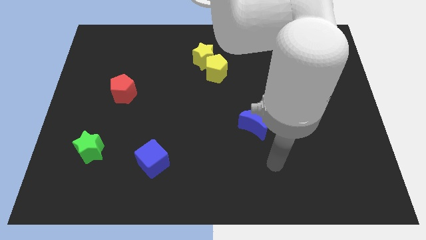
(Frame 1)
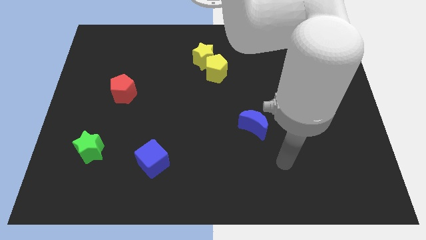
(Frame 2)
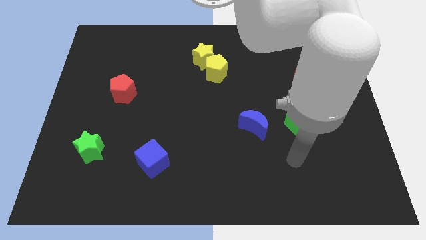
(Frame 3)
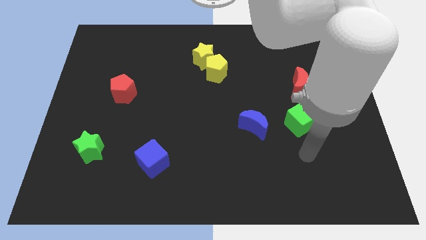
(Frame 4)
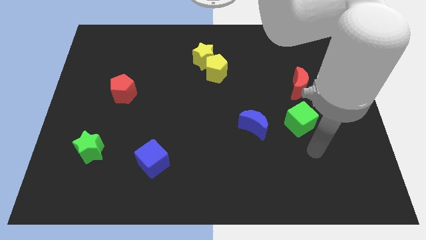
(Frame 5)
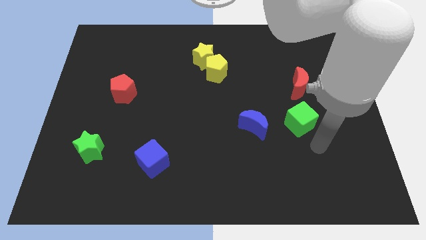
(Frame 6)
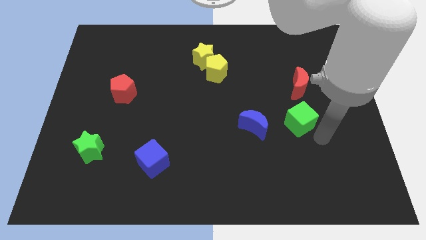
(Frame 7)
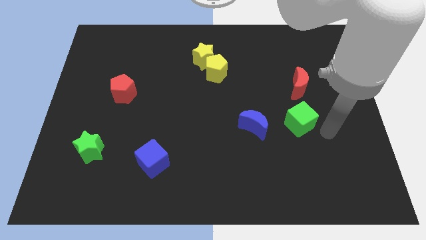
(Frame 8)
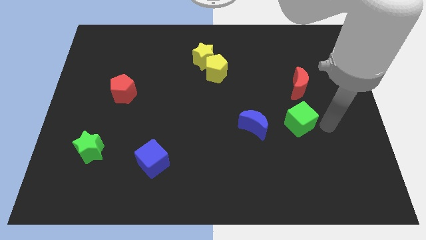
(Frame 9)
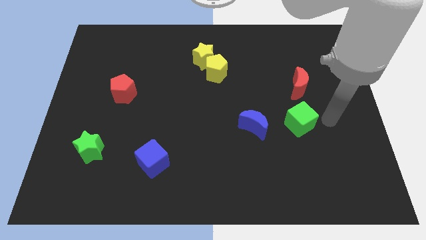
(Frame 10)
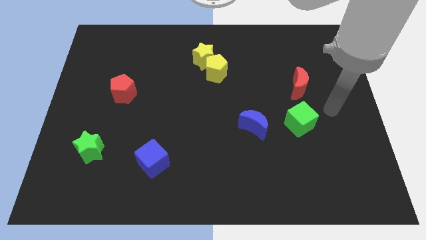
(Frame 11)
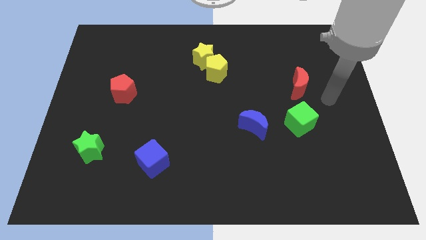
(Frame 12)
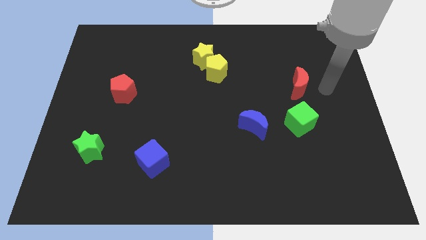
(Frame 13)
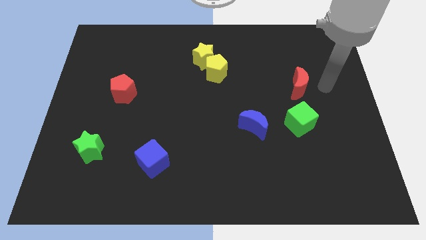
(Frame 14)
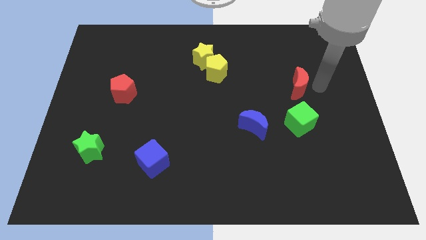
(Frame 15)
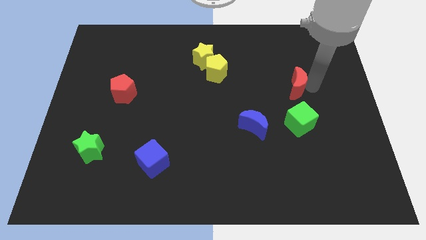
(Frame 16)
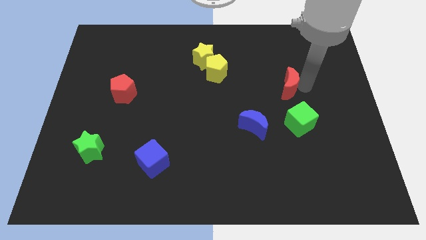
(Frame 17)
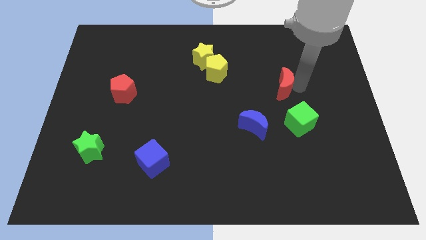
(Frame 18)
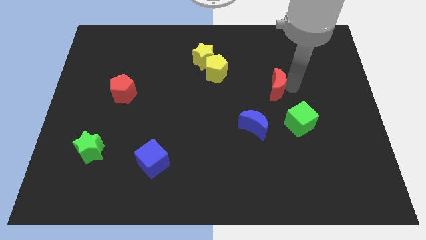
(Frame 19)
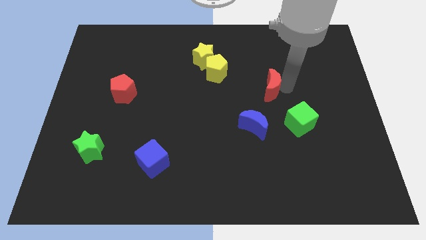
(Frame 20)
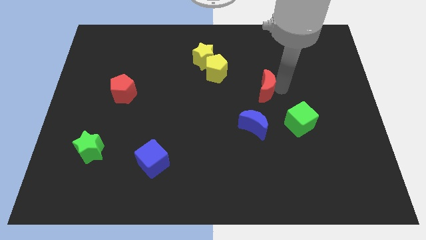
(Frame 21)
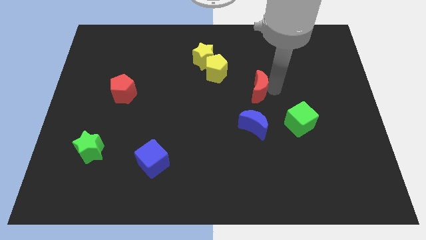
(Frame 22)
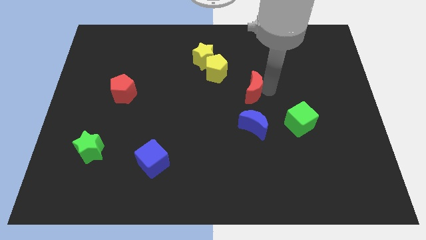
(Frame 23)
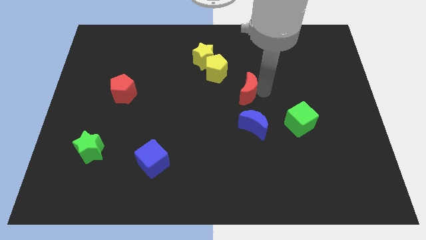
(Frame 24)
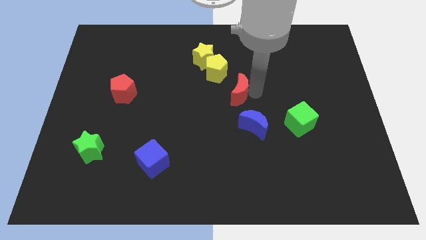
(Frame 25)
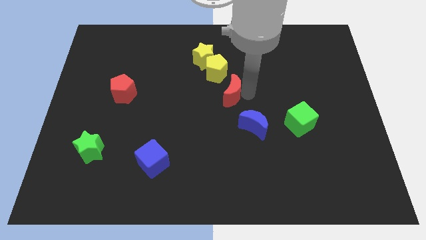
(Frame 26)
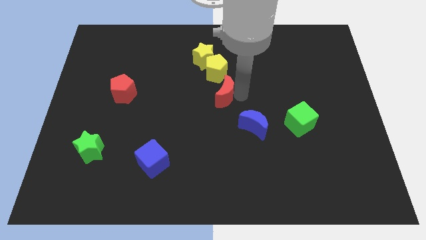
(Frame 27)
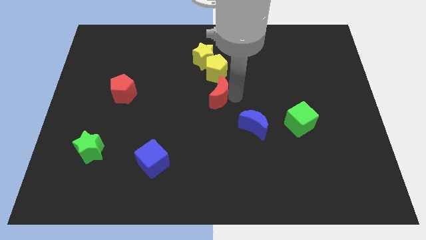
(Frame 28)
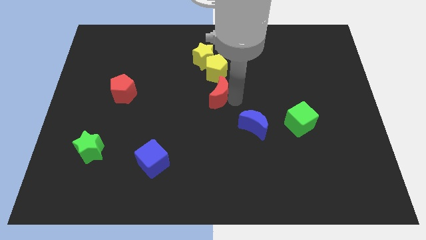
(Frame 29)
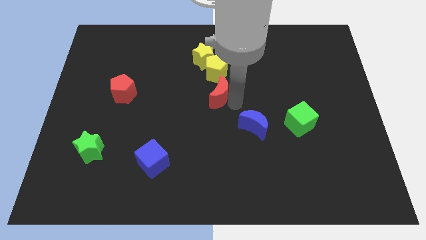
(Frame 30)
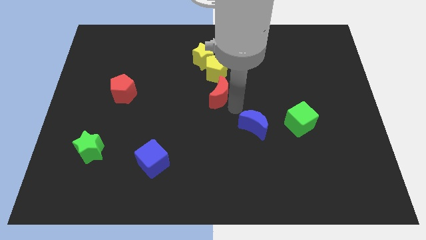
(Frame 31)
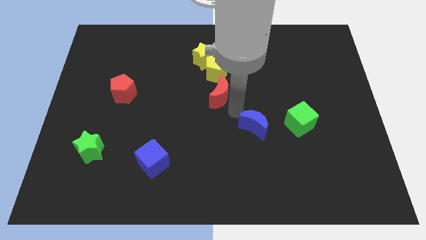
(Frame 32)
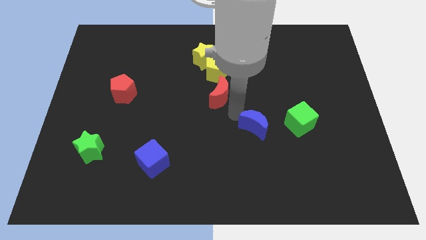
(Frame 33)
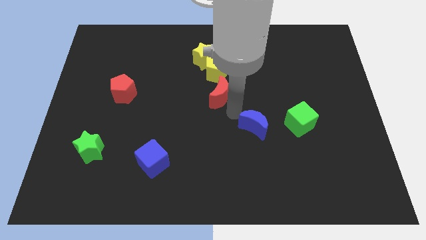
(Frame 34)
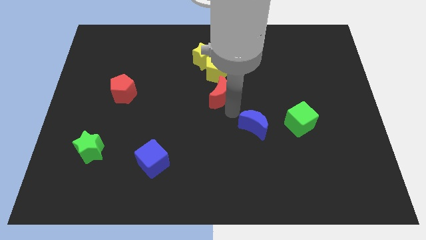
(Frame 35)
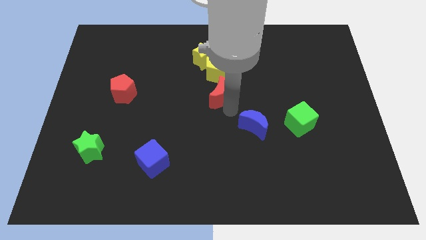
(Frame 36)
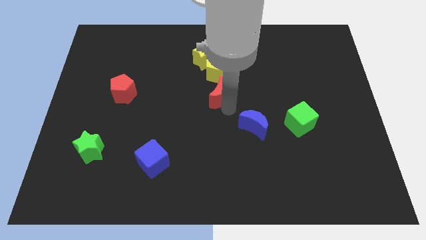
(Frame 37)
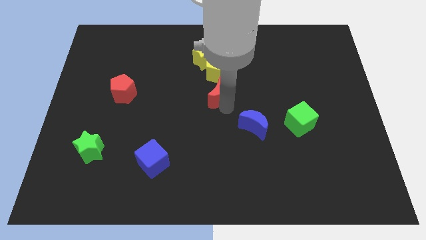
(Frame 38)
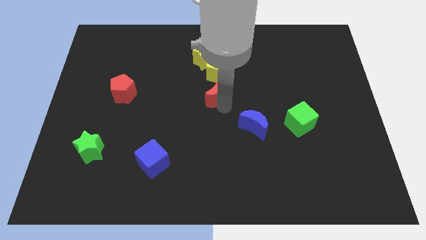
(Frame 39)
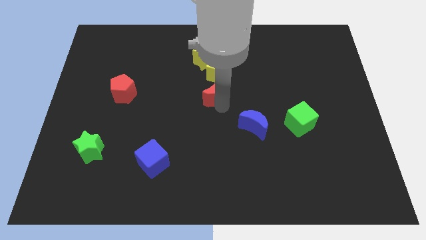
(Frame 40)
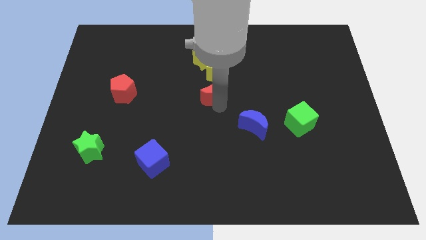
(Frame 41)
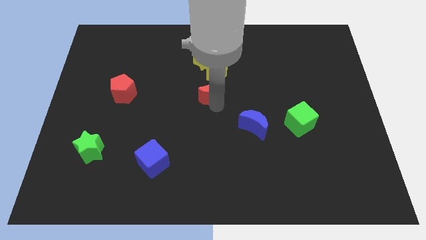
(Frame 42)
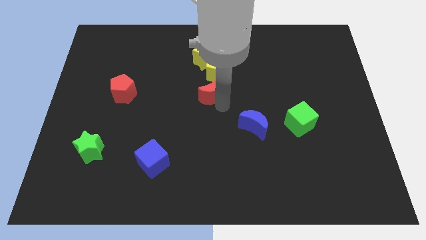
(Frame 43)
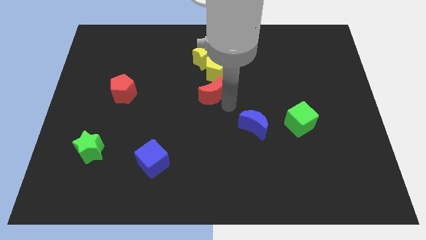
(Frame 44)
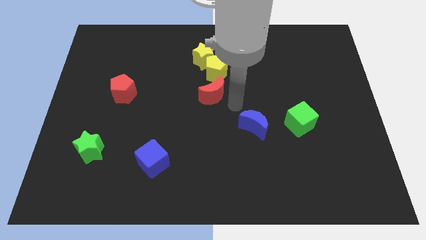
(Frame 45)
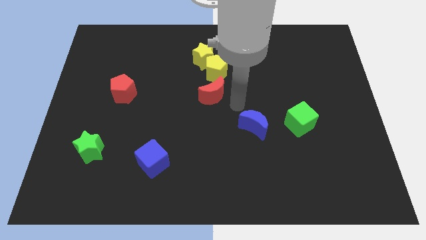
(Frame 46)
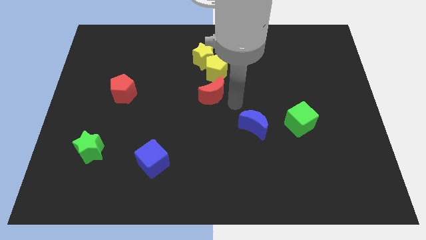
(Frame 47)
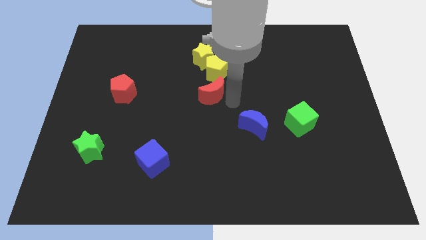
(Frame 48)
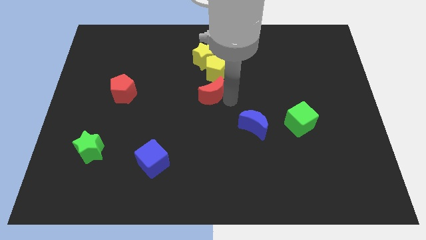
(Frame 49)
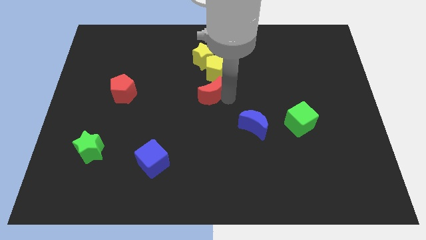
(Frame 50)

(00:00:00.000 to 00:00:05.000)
slide the red moon to the bottom left side of the yellow pentagon

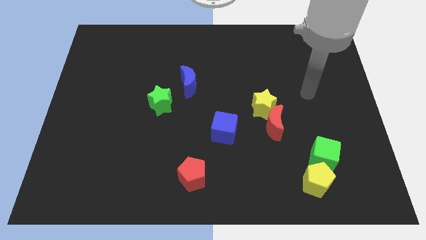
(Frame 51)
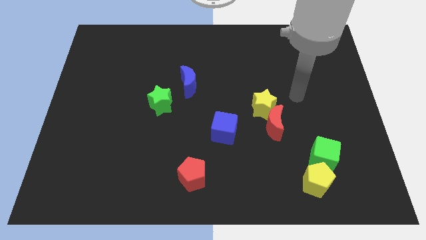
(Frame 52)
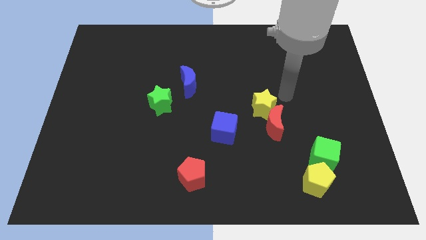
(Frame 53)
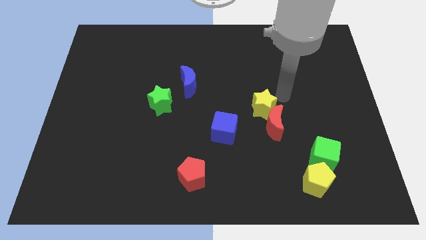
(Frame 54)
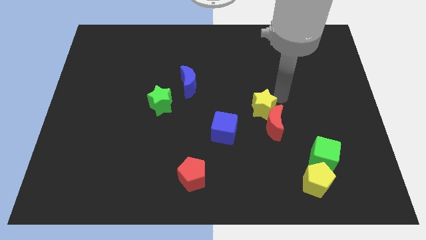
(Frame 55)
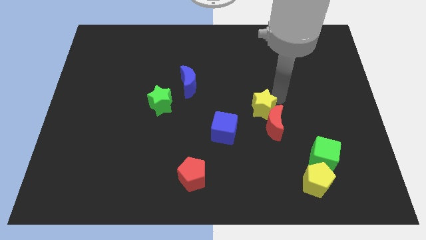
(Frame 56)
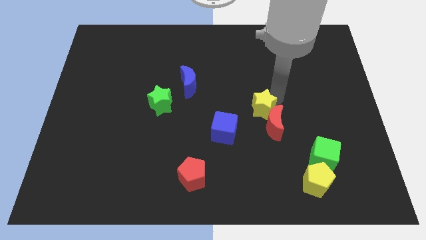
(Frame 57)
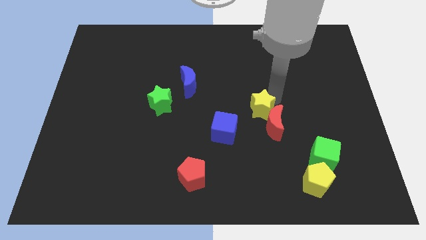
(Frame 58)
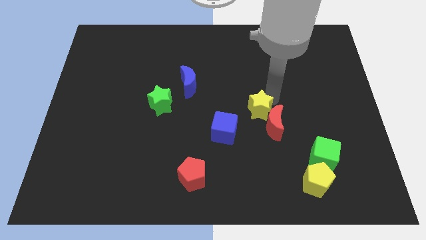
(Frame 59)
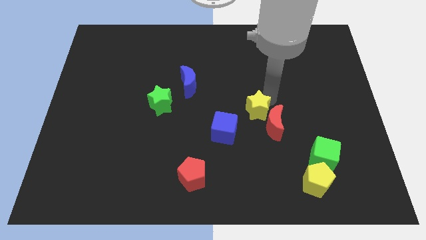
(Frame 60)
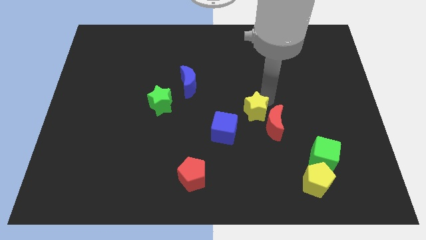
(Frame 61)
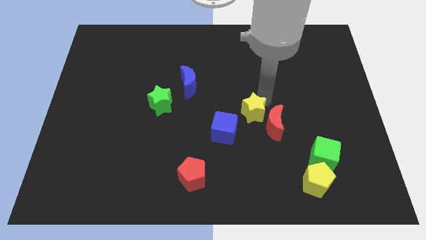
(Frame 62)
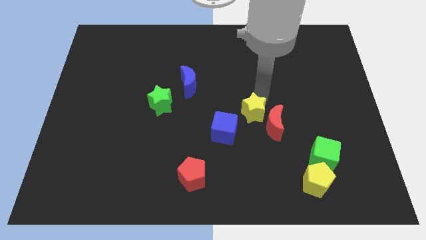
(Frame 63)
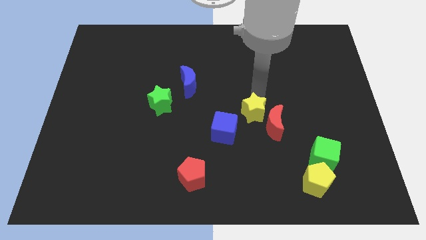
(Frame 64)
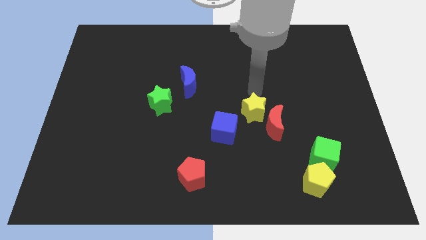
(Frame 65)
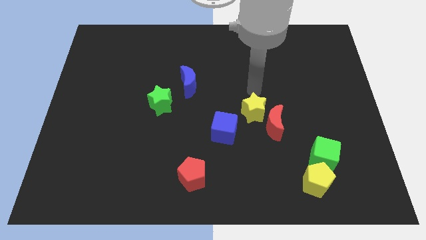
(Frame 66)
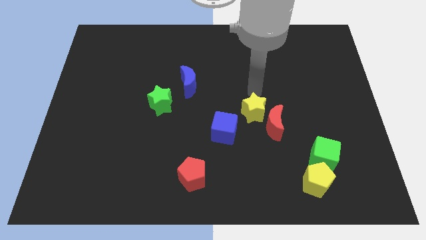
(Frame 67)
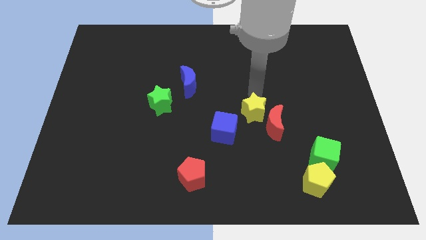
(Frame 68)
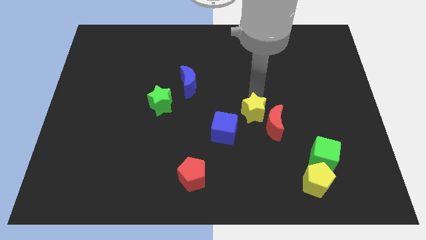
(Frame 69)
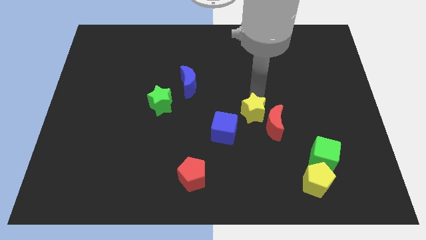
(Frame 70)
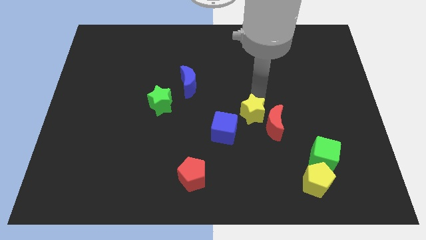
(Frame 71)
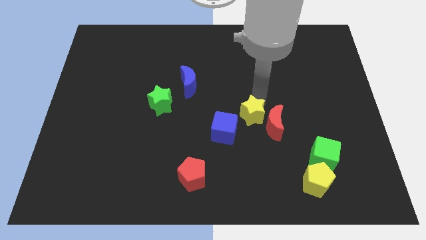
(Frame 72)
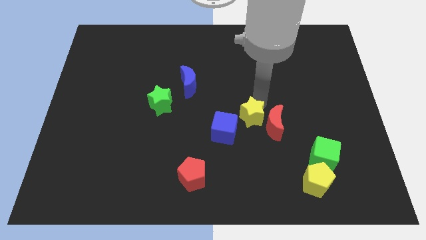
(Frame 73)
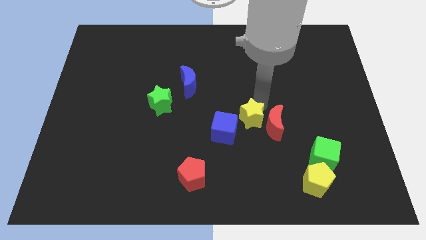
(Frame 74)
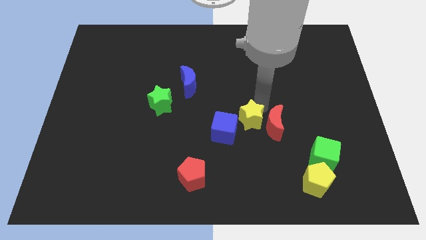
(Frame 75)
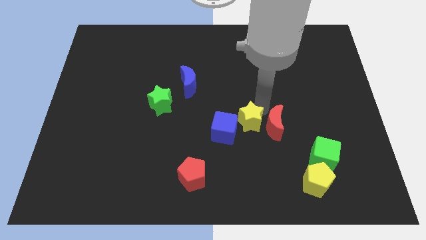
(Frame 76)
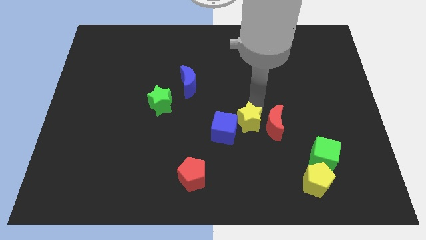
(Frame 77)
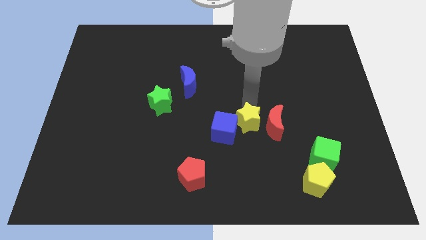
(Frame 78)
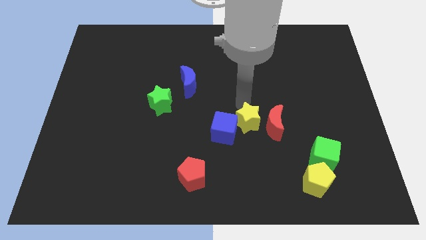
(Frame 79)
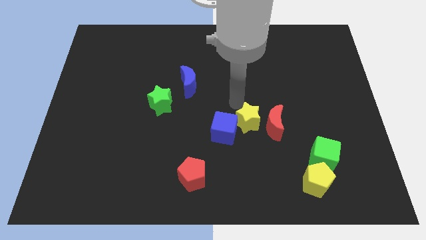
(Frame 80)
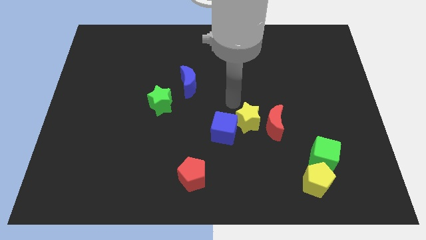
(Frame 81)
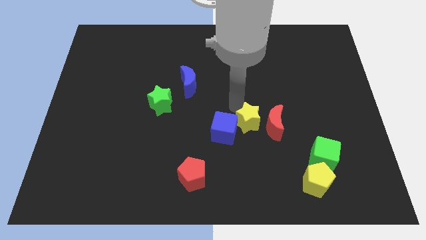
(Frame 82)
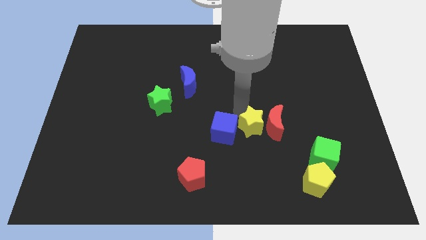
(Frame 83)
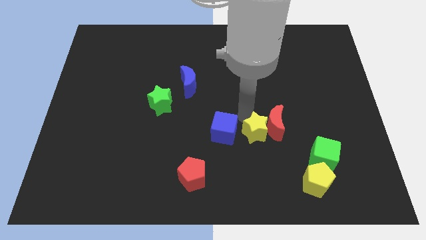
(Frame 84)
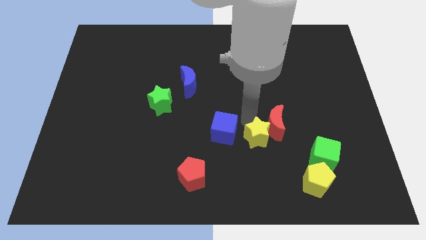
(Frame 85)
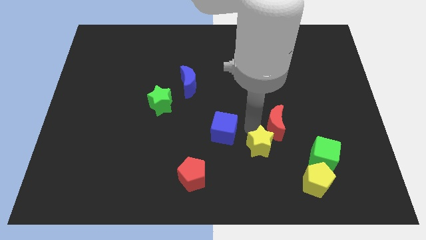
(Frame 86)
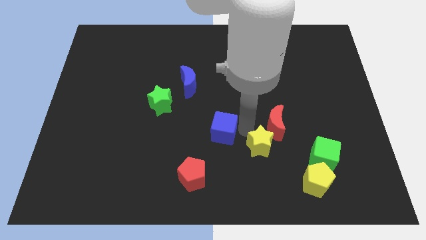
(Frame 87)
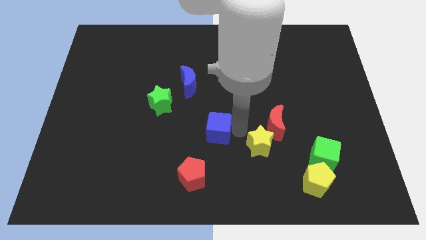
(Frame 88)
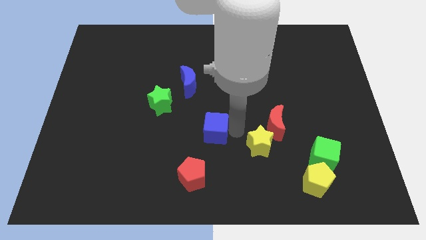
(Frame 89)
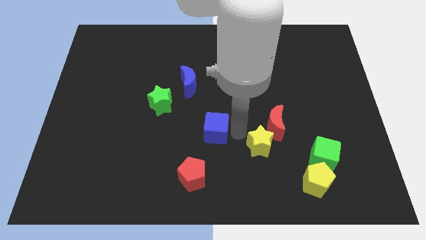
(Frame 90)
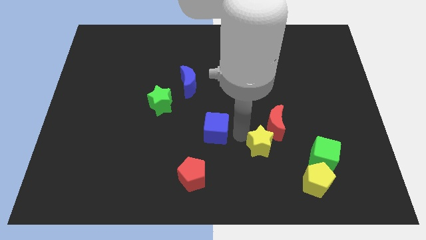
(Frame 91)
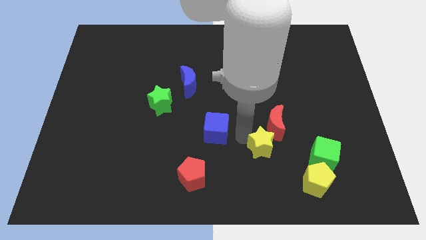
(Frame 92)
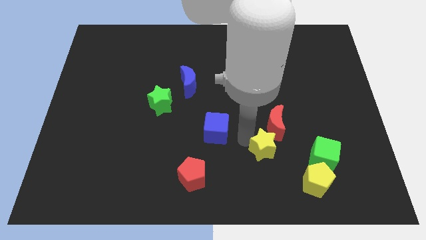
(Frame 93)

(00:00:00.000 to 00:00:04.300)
slide the yellow star to the top left side of the yellow pentagon
